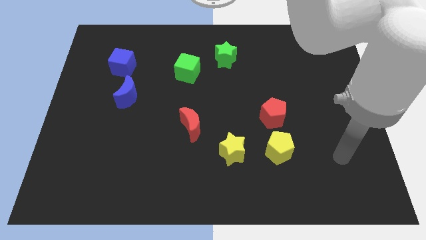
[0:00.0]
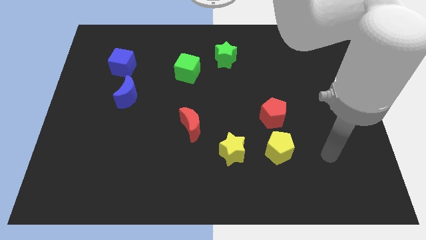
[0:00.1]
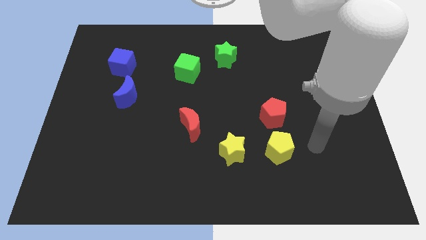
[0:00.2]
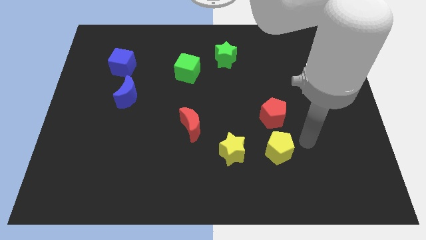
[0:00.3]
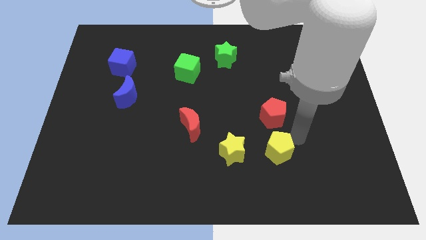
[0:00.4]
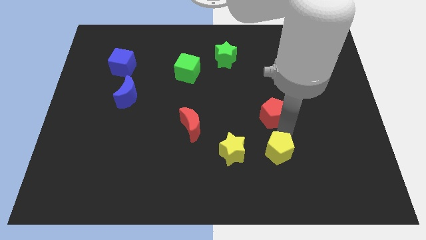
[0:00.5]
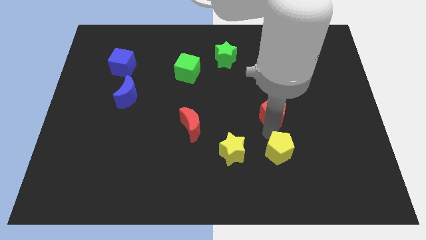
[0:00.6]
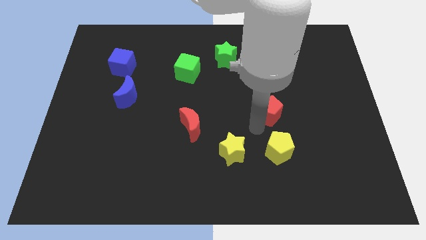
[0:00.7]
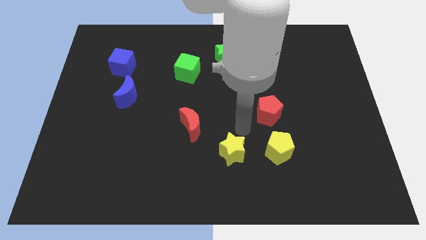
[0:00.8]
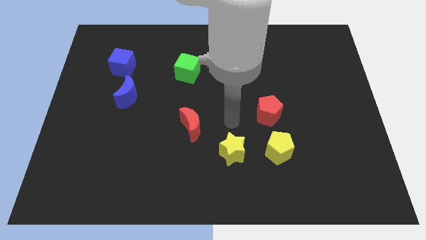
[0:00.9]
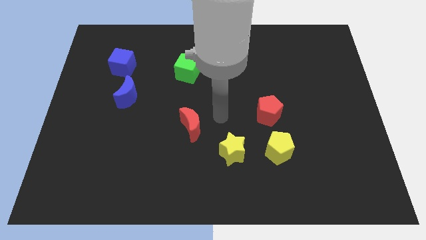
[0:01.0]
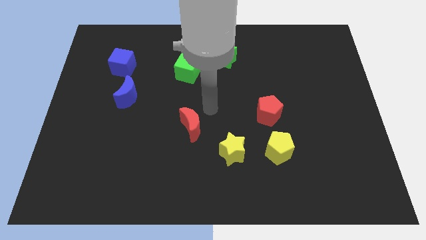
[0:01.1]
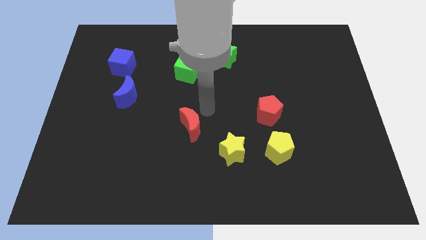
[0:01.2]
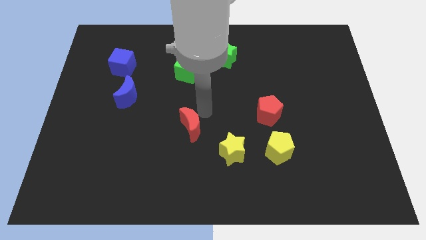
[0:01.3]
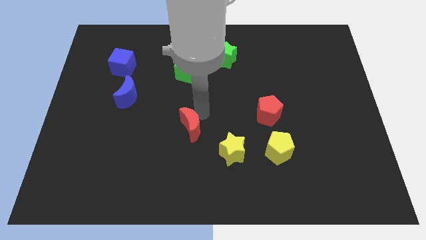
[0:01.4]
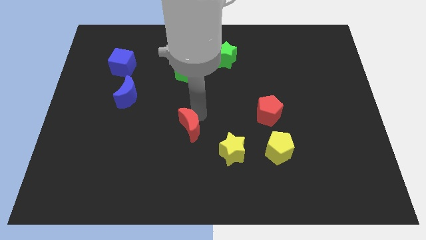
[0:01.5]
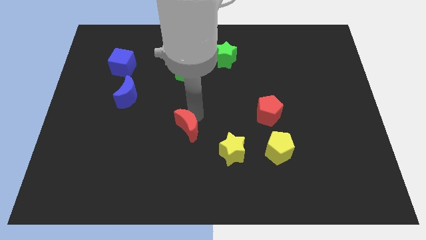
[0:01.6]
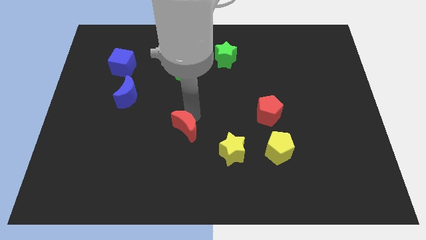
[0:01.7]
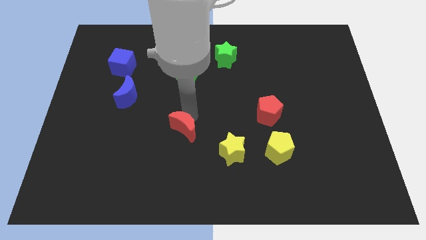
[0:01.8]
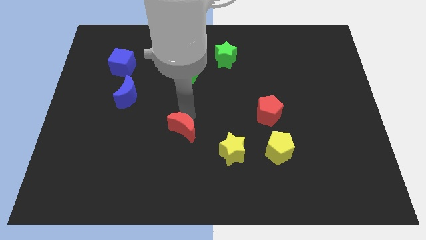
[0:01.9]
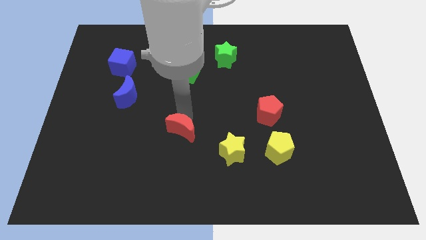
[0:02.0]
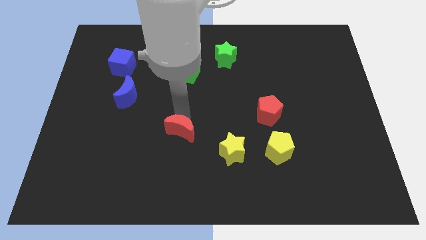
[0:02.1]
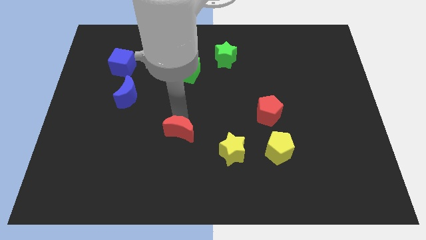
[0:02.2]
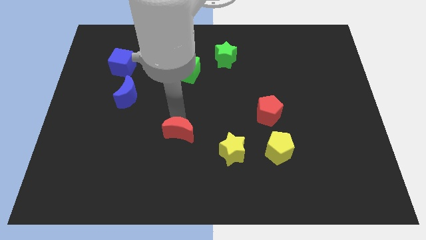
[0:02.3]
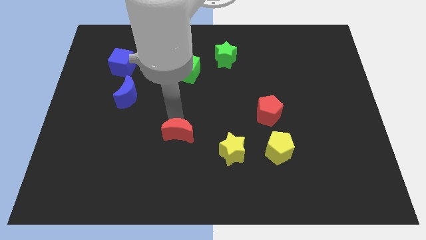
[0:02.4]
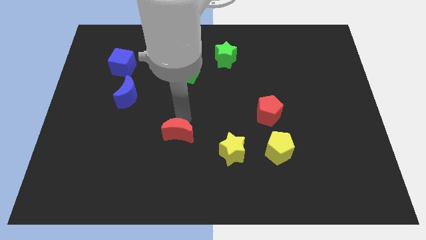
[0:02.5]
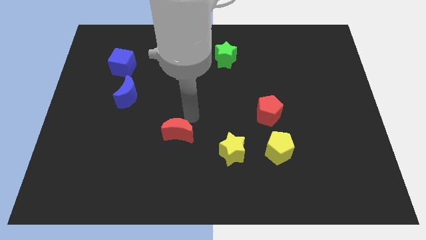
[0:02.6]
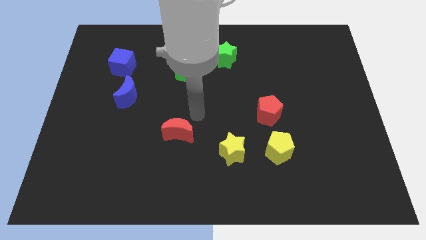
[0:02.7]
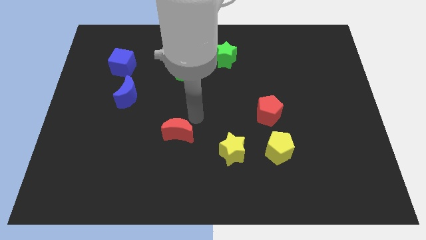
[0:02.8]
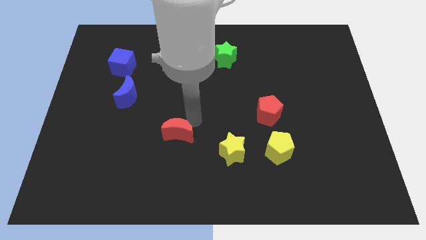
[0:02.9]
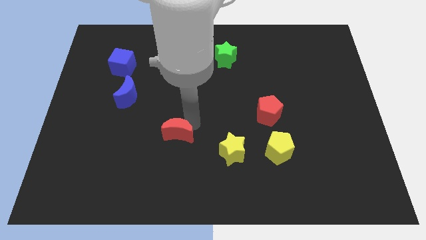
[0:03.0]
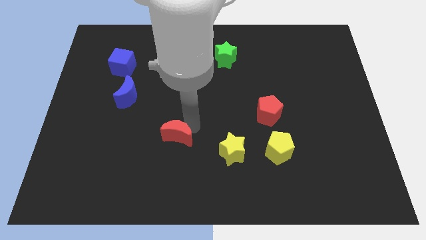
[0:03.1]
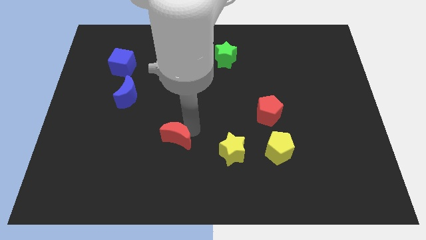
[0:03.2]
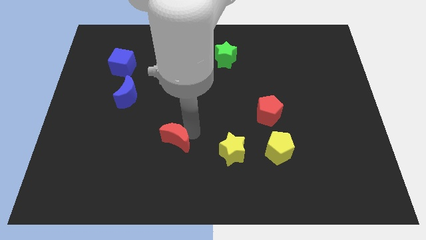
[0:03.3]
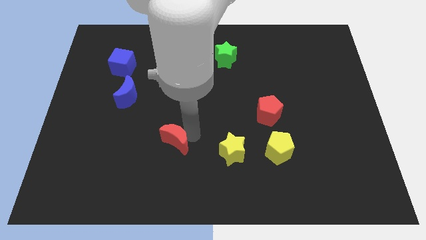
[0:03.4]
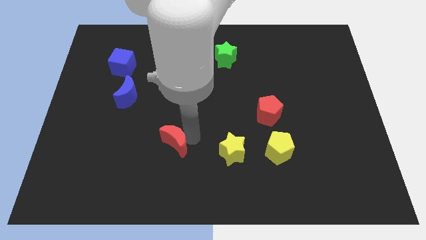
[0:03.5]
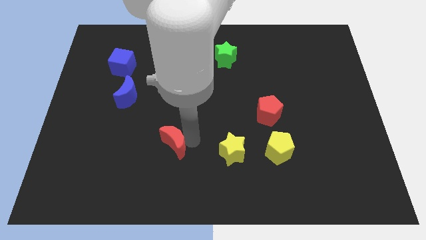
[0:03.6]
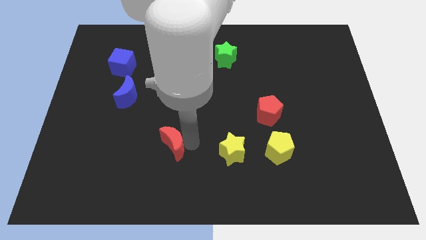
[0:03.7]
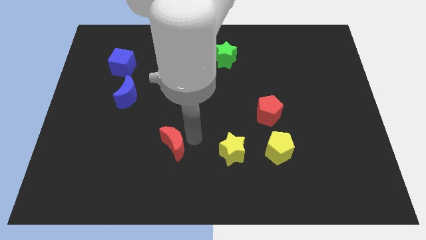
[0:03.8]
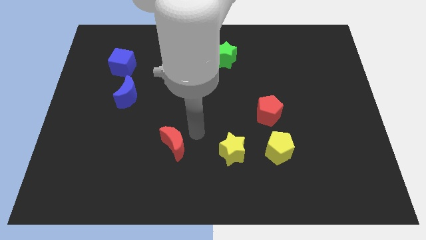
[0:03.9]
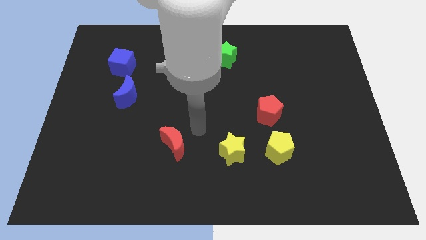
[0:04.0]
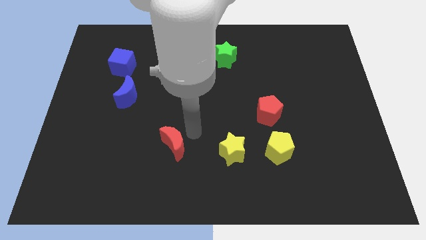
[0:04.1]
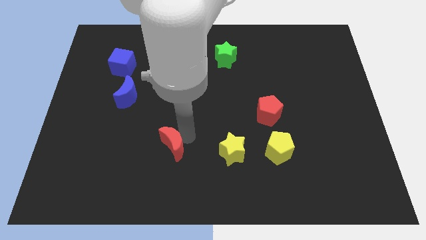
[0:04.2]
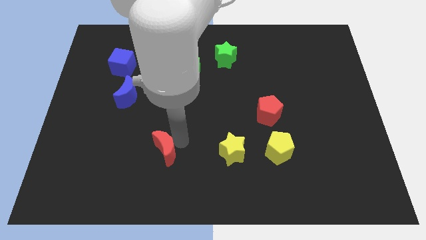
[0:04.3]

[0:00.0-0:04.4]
slightly push the red moon down and to the left diagonally

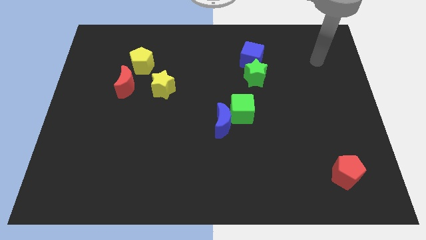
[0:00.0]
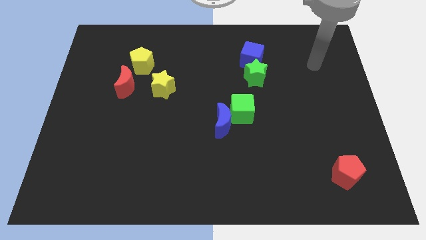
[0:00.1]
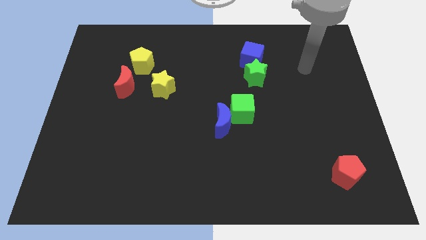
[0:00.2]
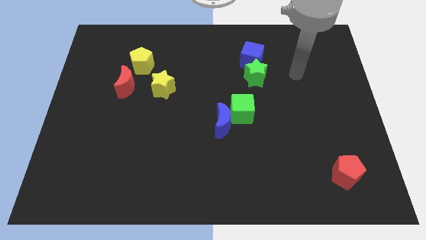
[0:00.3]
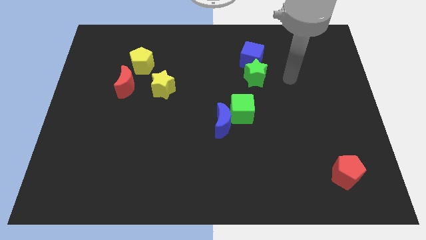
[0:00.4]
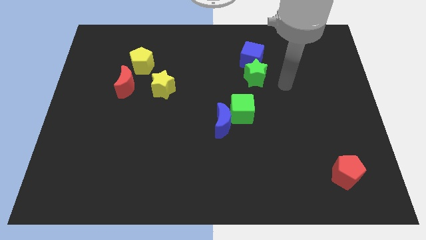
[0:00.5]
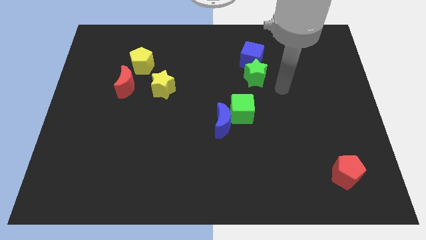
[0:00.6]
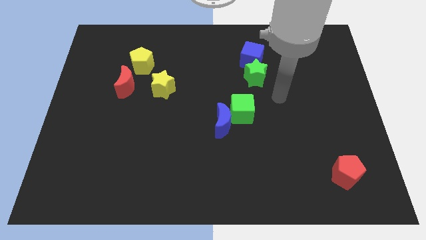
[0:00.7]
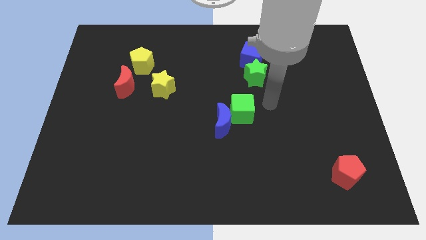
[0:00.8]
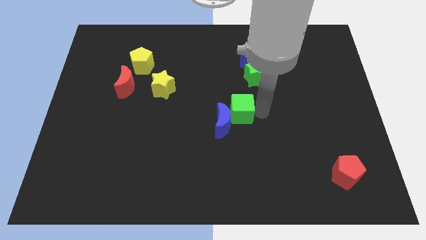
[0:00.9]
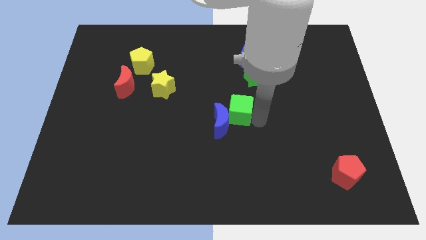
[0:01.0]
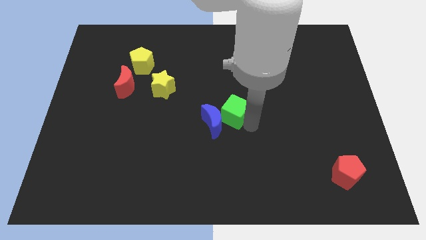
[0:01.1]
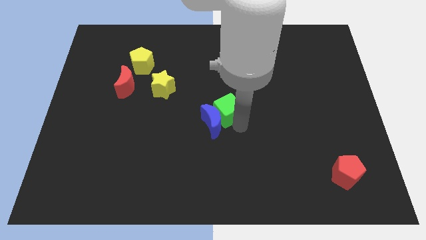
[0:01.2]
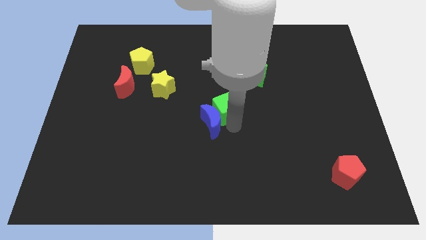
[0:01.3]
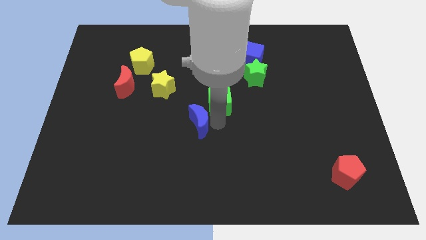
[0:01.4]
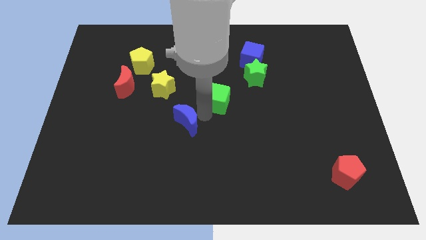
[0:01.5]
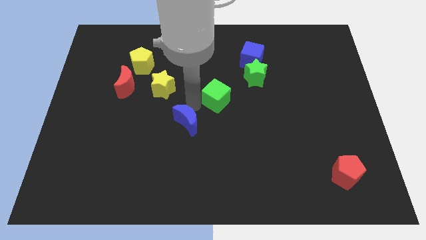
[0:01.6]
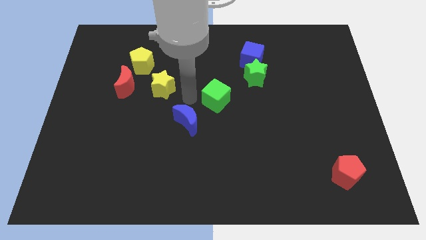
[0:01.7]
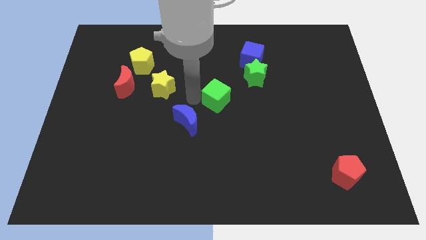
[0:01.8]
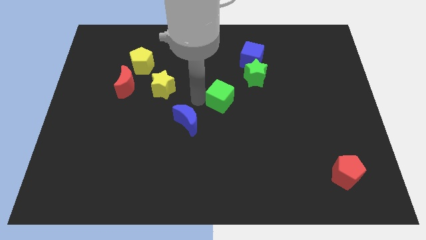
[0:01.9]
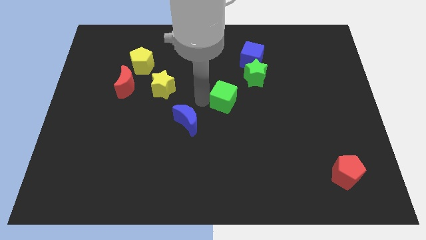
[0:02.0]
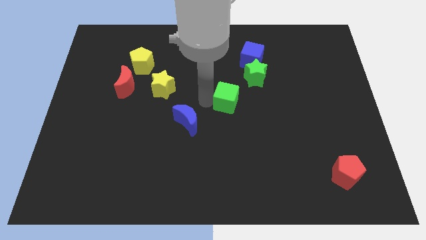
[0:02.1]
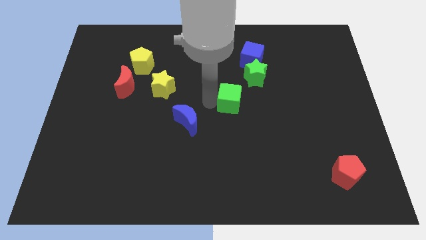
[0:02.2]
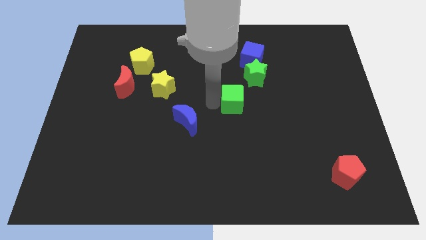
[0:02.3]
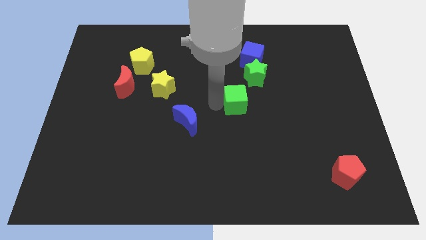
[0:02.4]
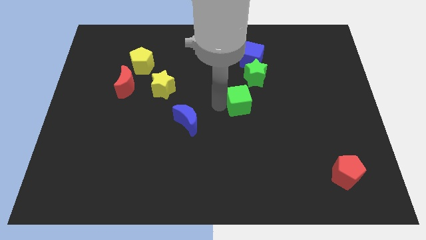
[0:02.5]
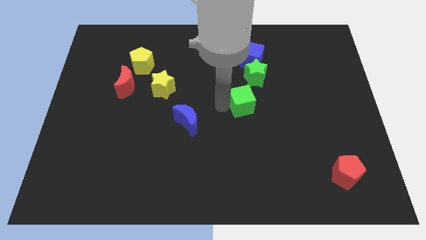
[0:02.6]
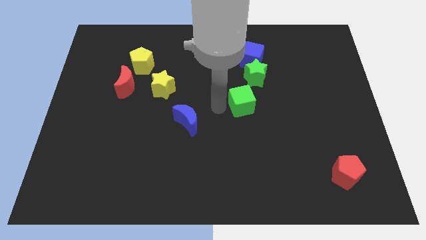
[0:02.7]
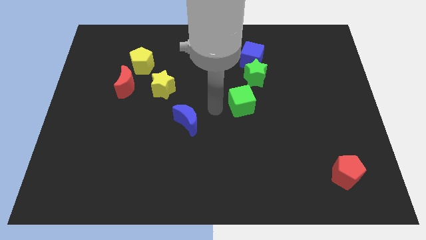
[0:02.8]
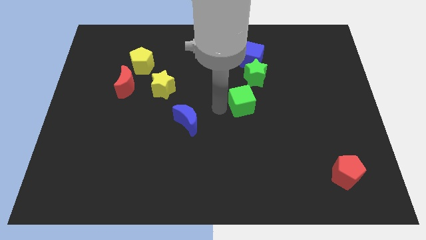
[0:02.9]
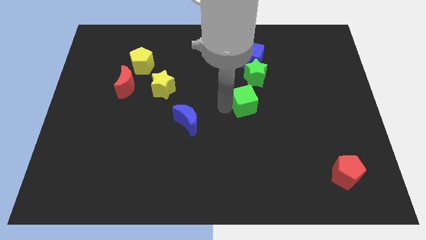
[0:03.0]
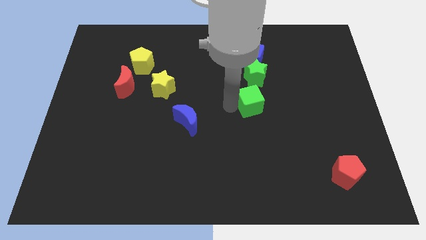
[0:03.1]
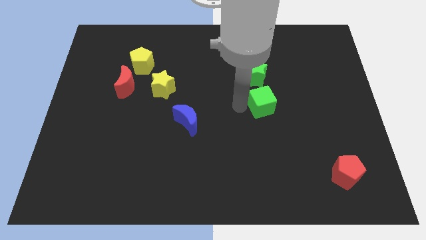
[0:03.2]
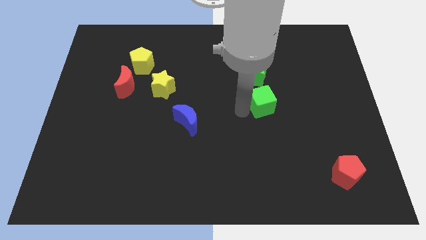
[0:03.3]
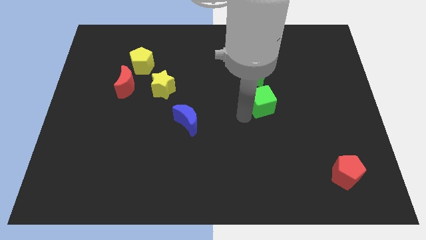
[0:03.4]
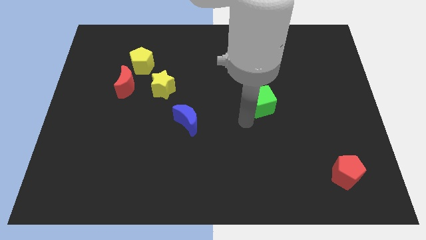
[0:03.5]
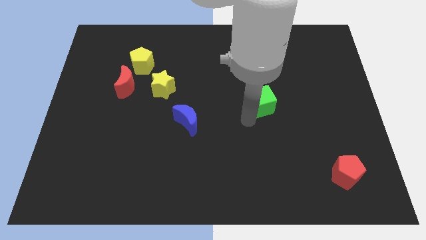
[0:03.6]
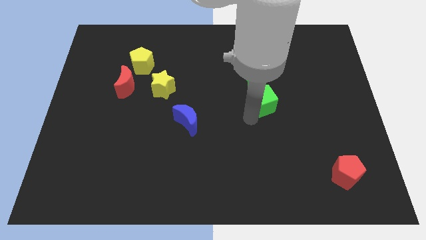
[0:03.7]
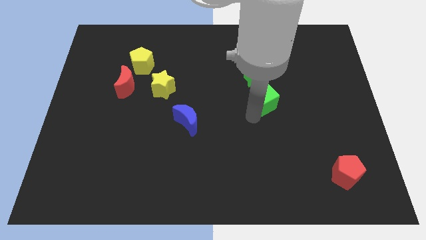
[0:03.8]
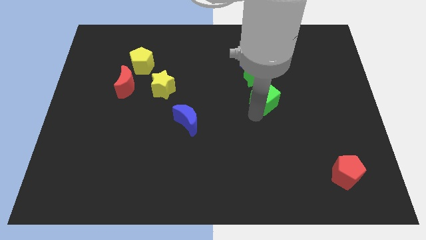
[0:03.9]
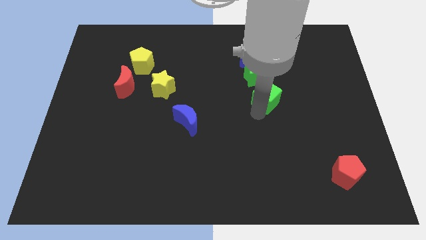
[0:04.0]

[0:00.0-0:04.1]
push the green cube up and to the right slightly
